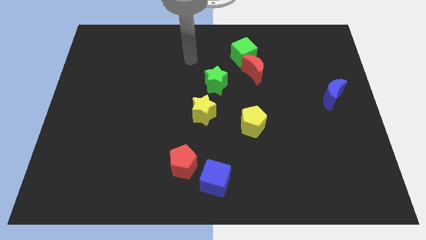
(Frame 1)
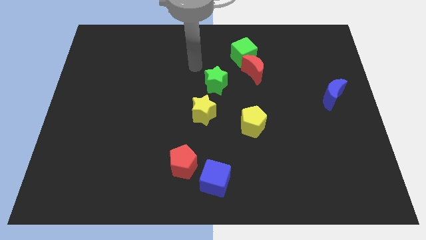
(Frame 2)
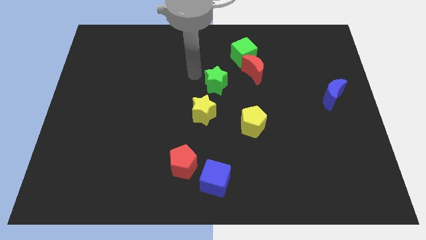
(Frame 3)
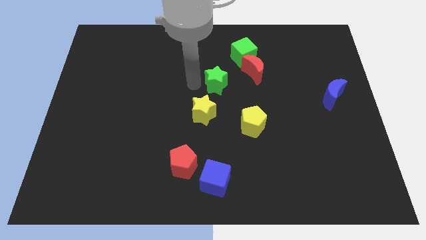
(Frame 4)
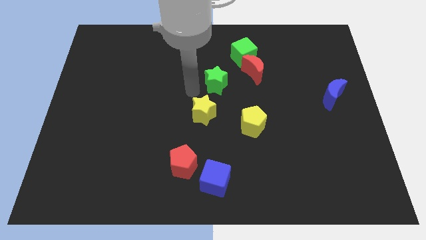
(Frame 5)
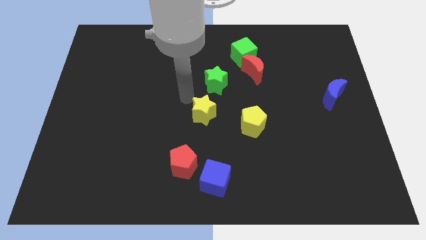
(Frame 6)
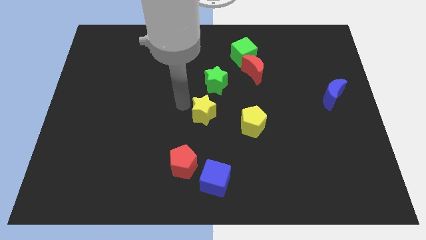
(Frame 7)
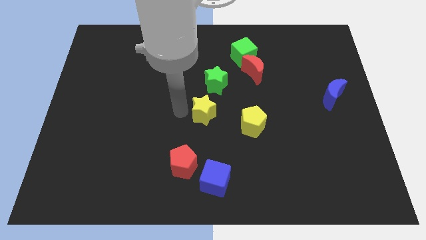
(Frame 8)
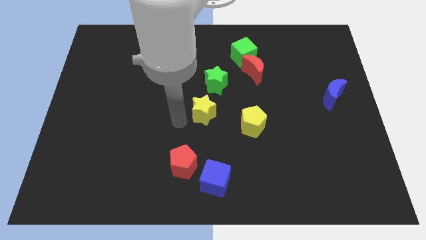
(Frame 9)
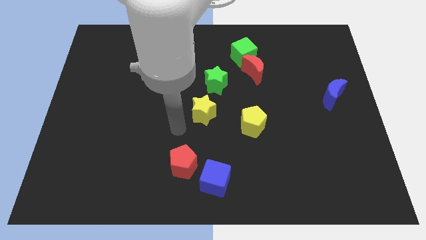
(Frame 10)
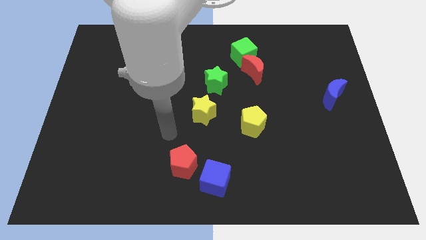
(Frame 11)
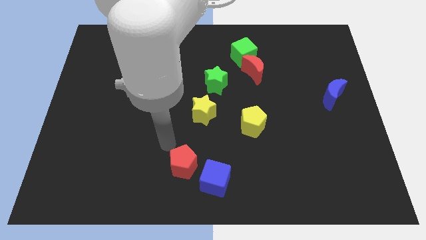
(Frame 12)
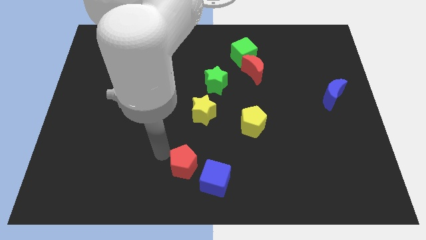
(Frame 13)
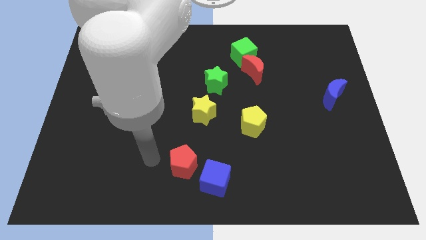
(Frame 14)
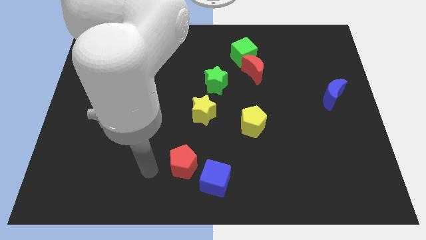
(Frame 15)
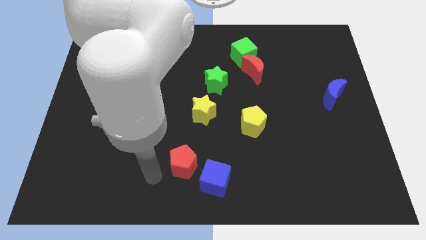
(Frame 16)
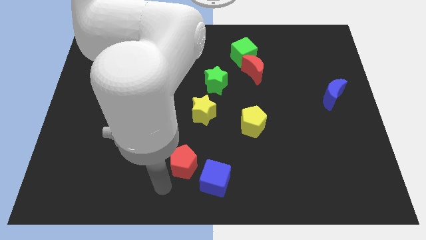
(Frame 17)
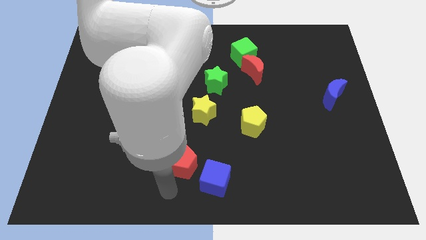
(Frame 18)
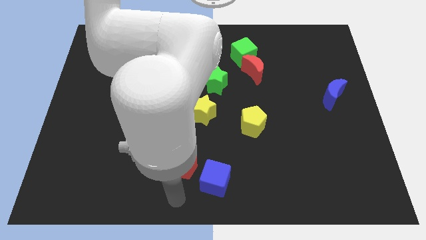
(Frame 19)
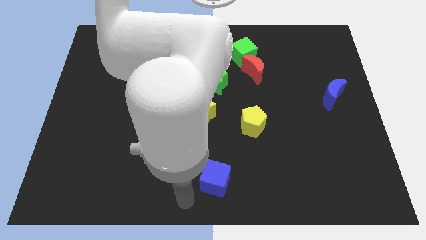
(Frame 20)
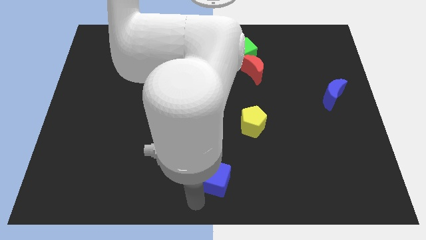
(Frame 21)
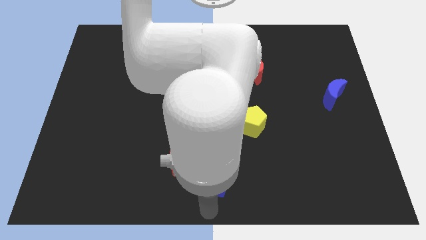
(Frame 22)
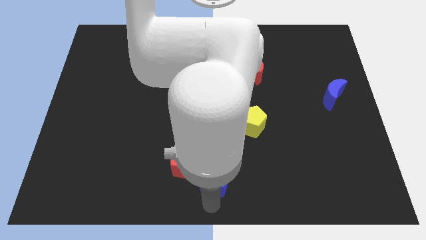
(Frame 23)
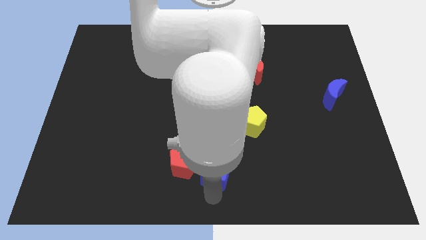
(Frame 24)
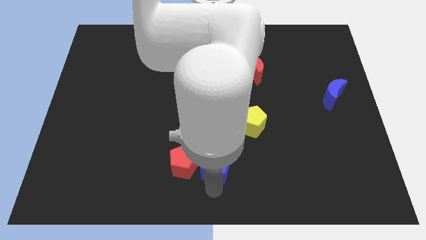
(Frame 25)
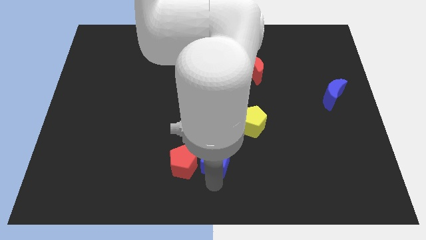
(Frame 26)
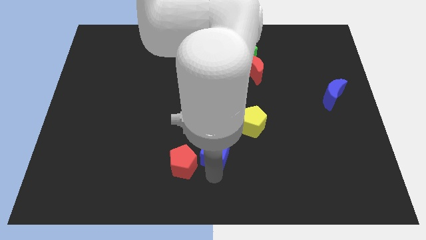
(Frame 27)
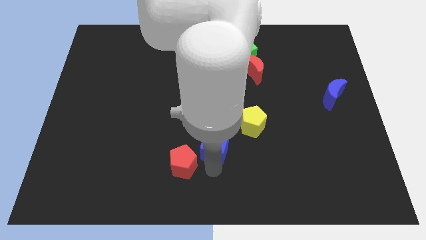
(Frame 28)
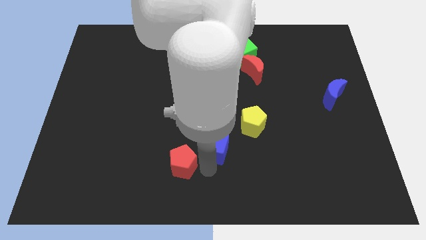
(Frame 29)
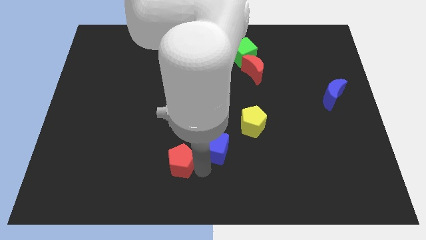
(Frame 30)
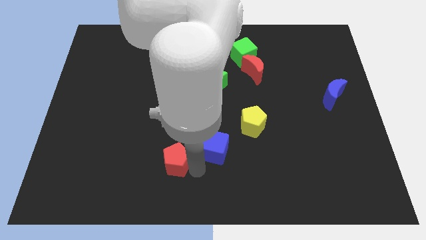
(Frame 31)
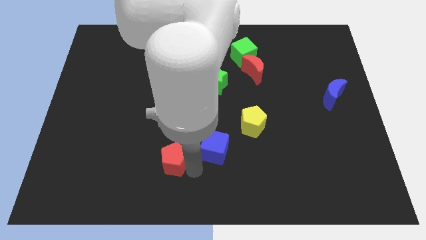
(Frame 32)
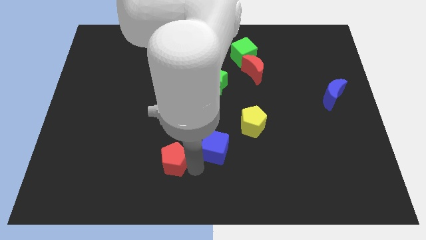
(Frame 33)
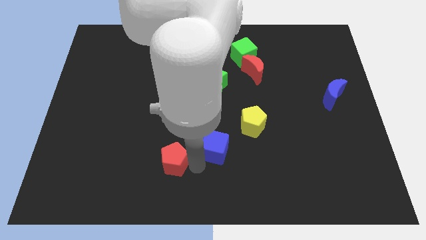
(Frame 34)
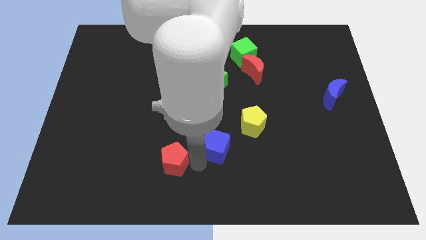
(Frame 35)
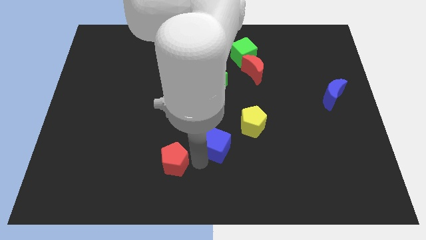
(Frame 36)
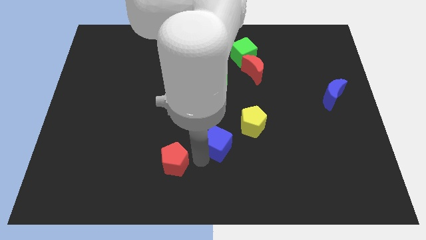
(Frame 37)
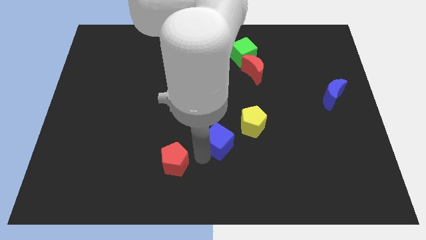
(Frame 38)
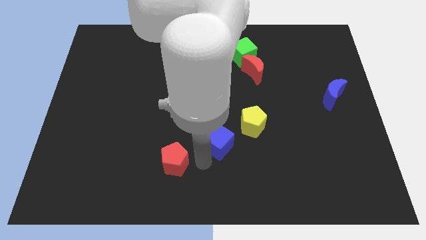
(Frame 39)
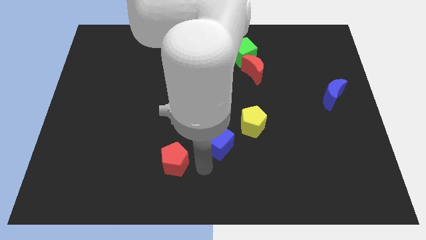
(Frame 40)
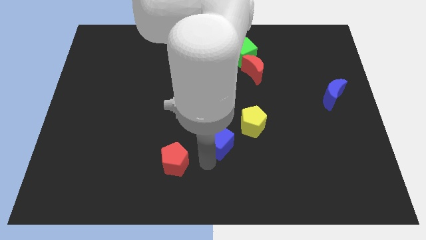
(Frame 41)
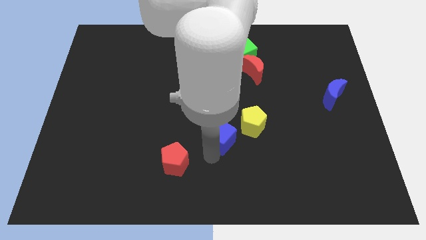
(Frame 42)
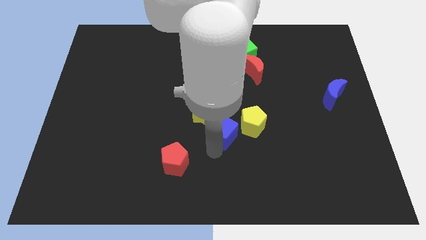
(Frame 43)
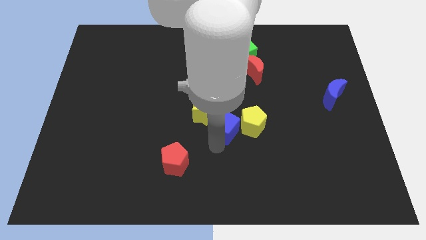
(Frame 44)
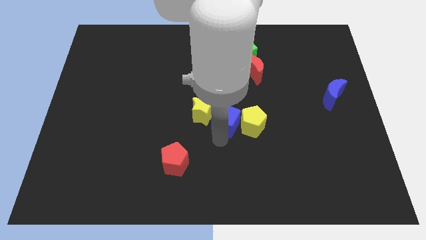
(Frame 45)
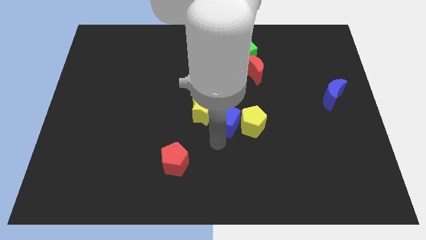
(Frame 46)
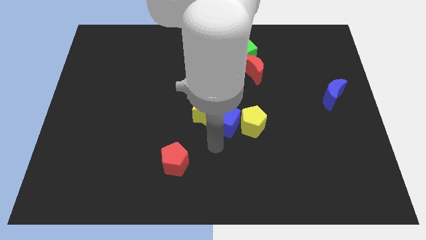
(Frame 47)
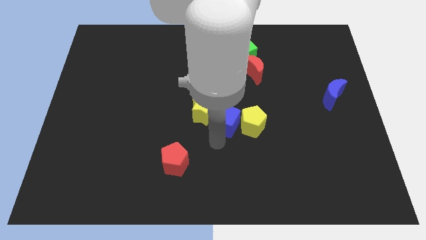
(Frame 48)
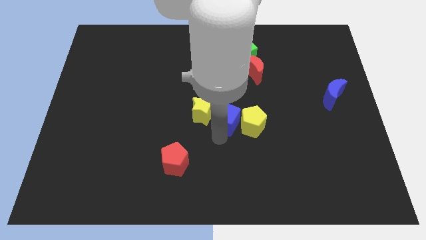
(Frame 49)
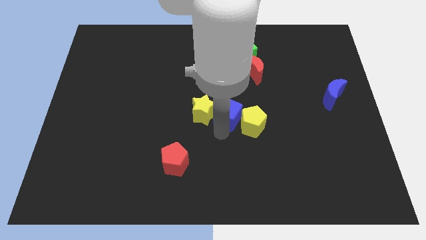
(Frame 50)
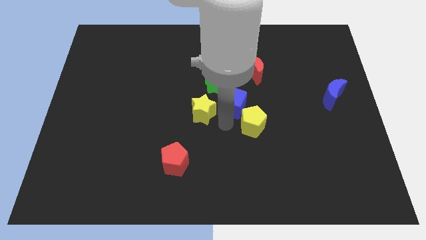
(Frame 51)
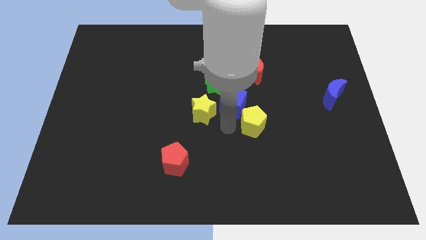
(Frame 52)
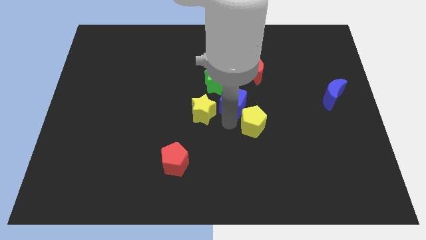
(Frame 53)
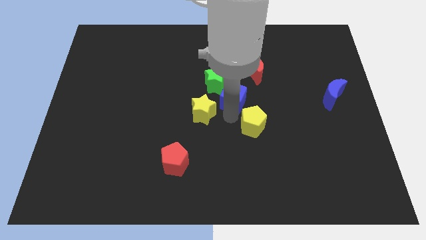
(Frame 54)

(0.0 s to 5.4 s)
move the blue cube up

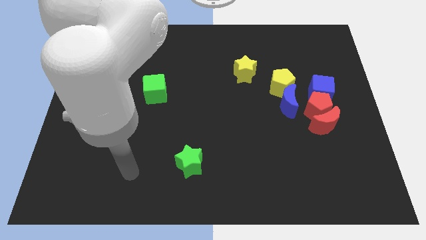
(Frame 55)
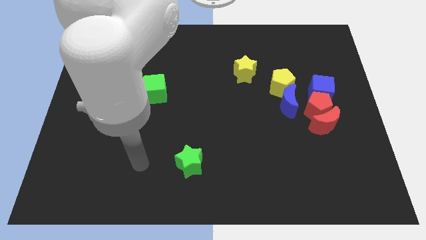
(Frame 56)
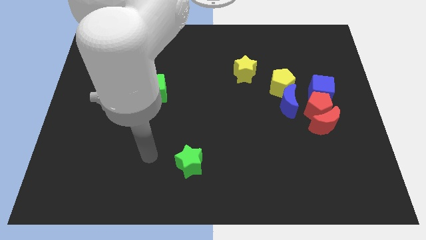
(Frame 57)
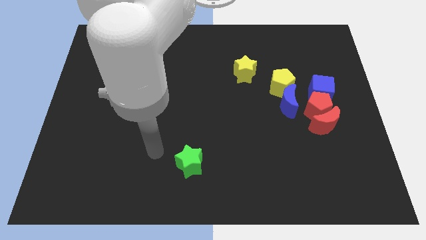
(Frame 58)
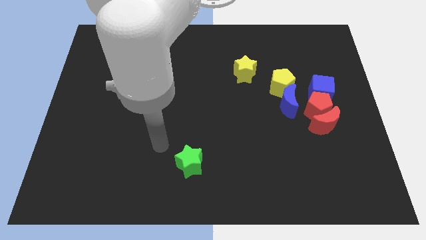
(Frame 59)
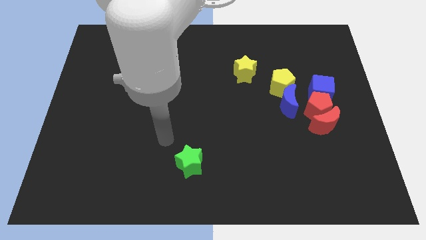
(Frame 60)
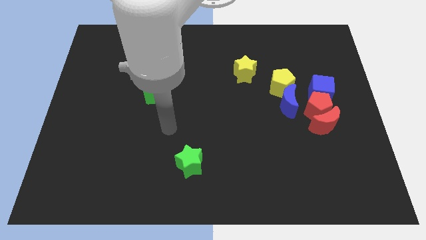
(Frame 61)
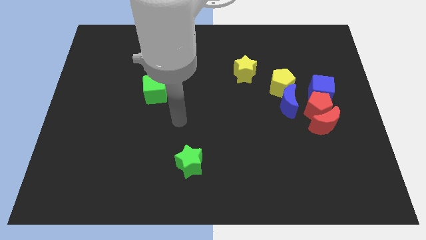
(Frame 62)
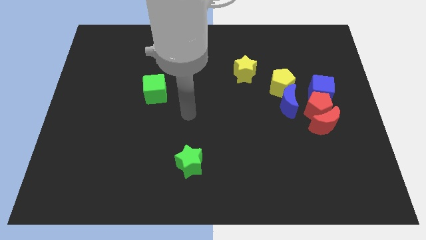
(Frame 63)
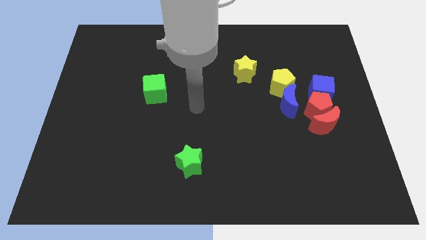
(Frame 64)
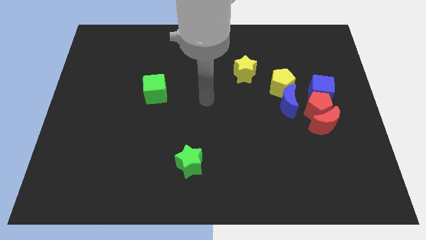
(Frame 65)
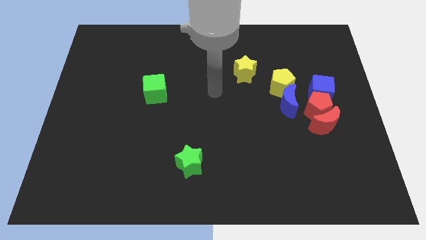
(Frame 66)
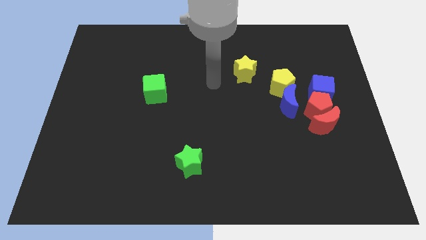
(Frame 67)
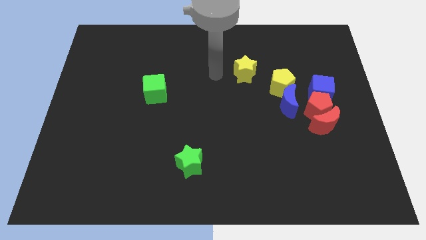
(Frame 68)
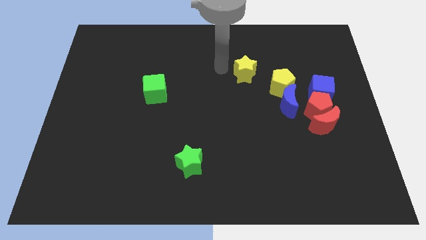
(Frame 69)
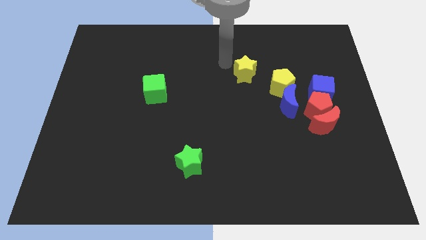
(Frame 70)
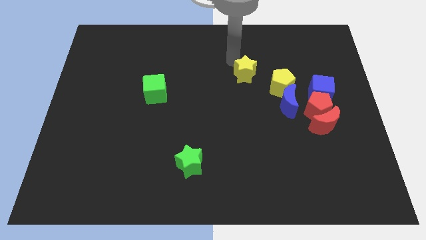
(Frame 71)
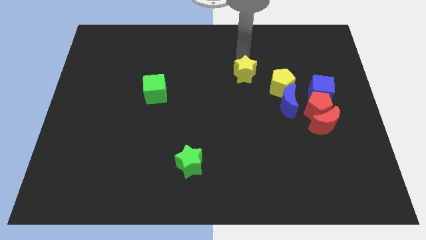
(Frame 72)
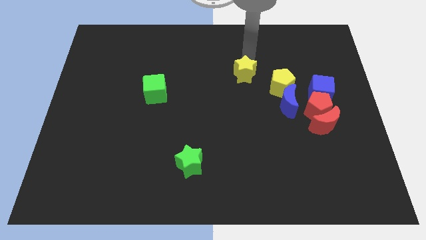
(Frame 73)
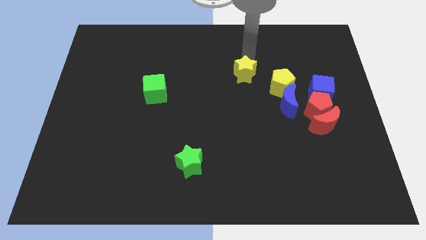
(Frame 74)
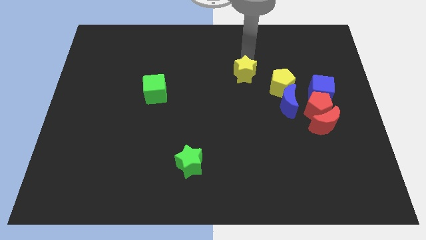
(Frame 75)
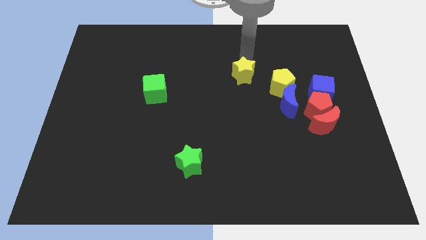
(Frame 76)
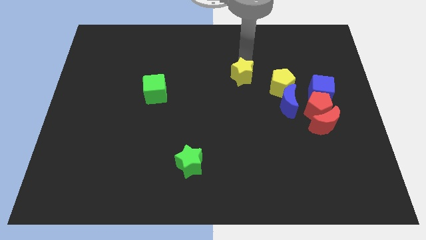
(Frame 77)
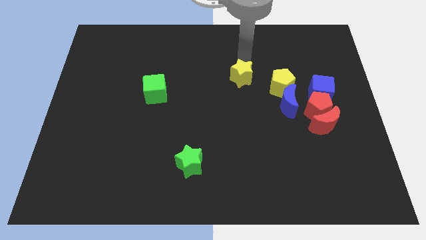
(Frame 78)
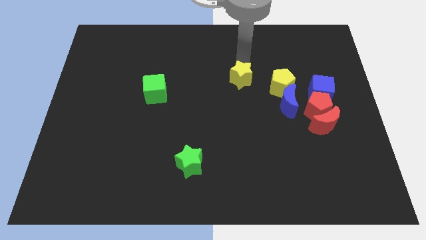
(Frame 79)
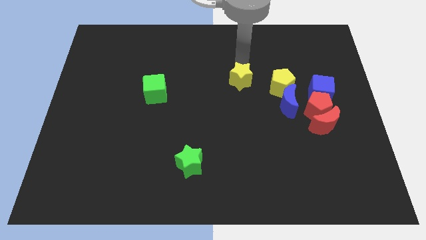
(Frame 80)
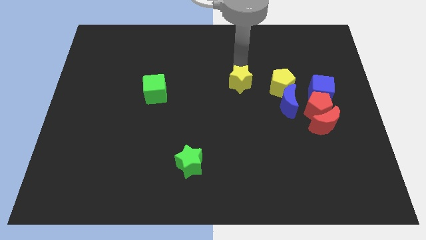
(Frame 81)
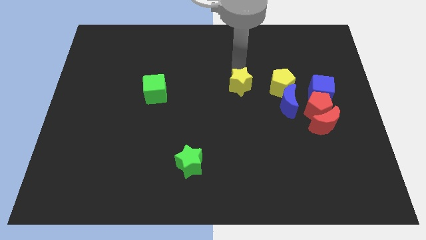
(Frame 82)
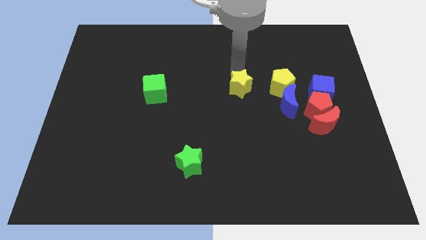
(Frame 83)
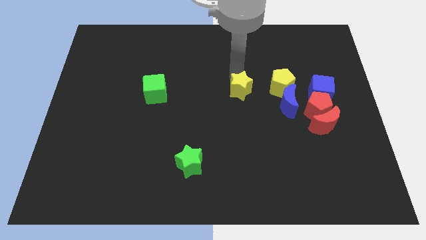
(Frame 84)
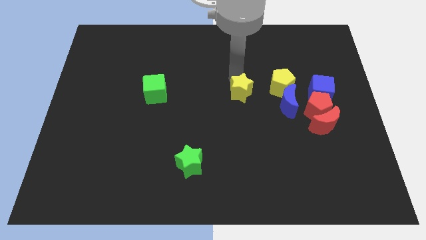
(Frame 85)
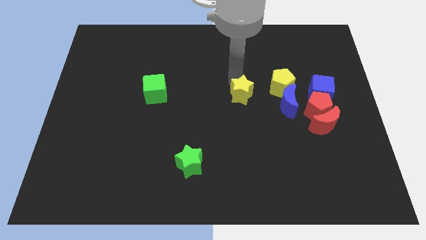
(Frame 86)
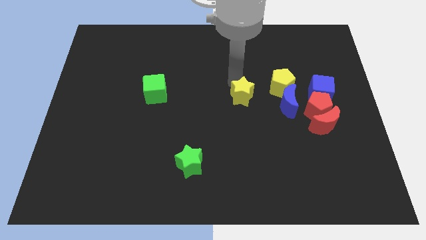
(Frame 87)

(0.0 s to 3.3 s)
slide the yellow star a little bit downwards
